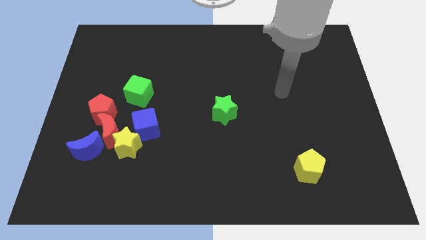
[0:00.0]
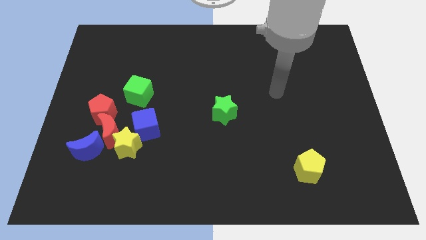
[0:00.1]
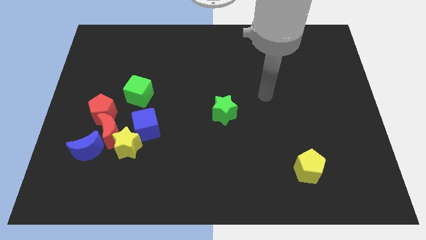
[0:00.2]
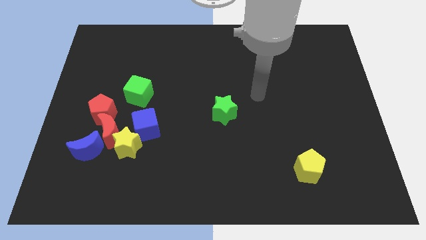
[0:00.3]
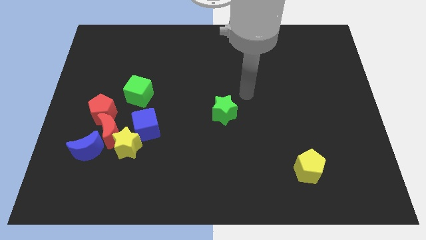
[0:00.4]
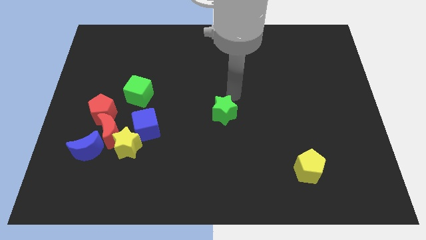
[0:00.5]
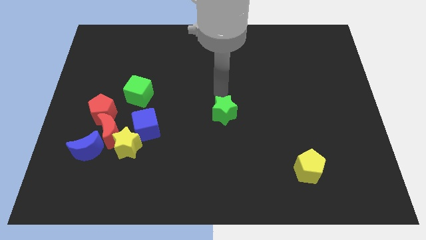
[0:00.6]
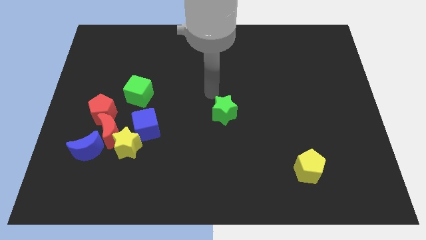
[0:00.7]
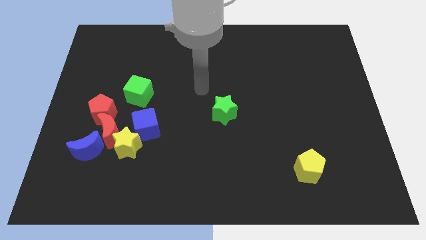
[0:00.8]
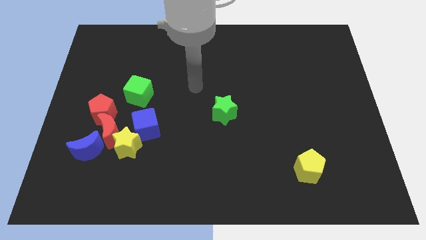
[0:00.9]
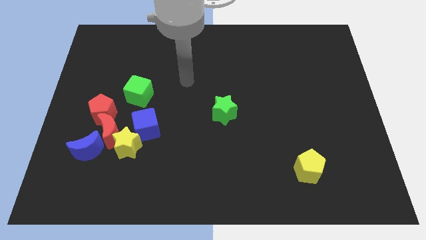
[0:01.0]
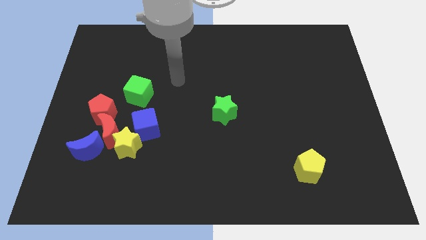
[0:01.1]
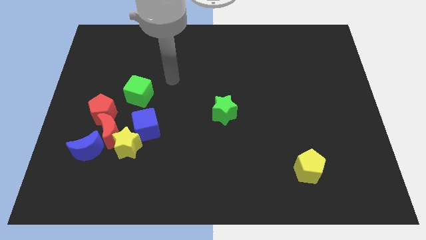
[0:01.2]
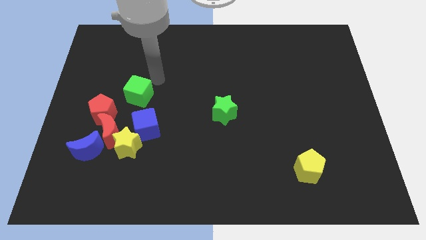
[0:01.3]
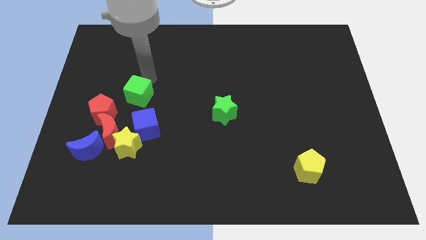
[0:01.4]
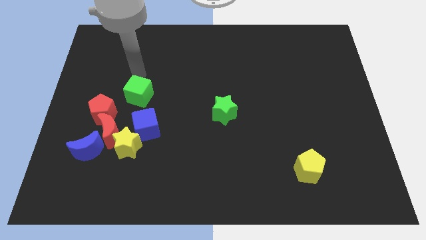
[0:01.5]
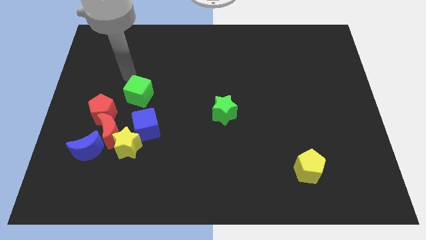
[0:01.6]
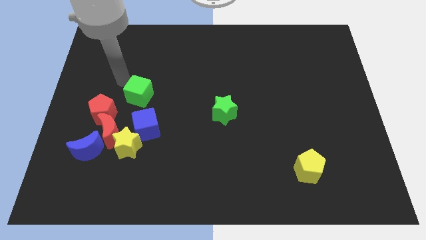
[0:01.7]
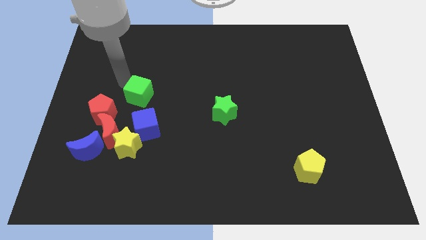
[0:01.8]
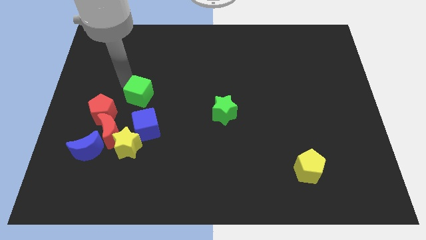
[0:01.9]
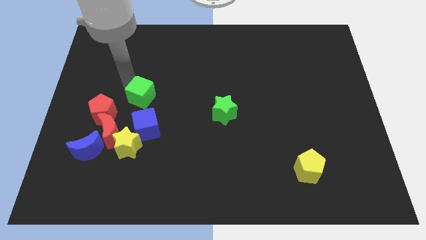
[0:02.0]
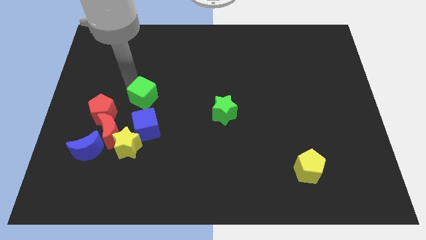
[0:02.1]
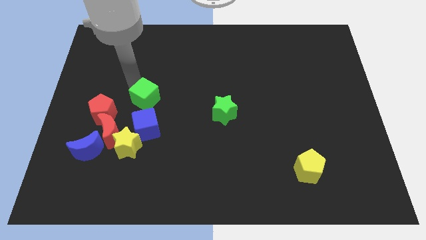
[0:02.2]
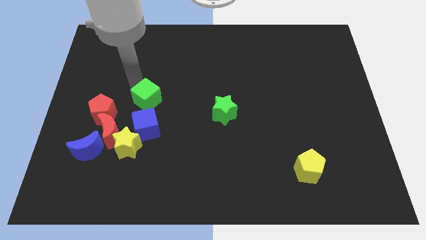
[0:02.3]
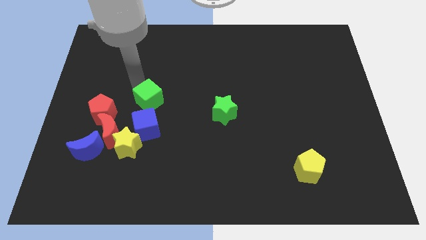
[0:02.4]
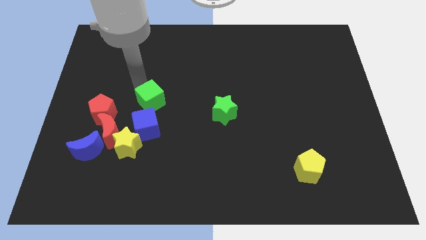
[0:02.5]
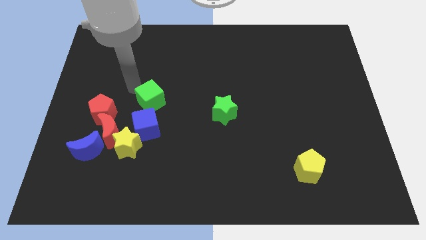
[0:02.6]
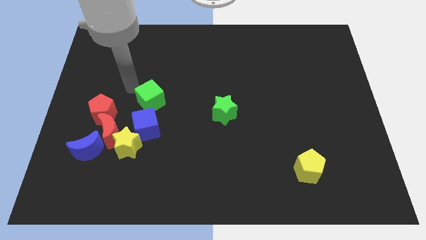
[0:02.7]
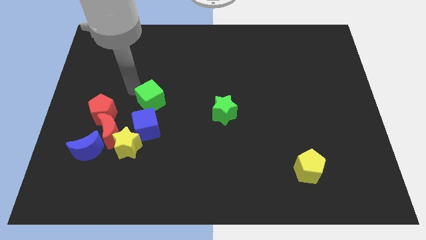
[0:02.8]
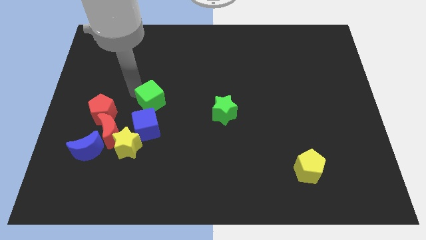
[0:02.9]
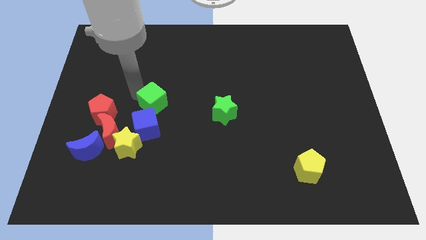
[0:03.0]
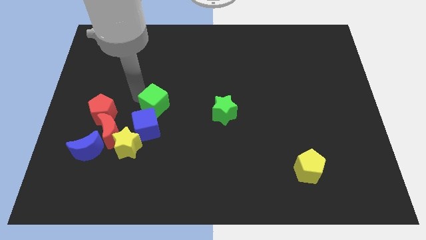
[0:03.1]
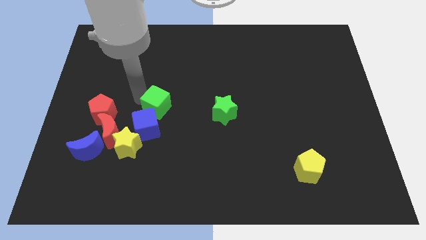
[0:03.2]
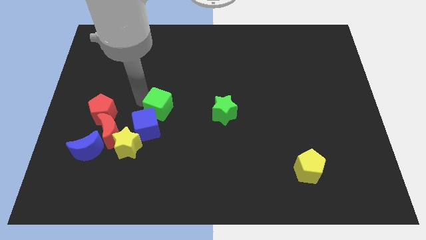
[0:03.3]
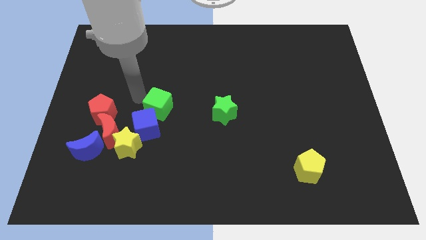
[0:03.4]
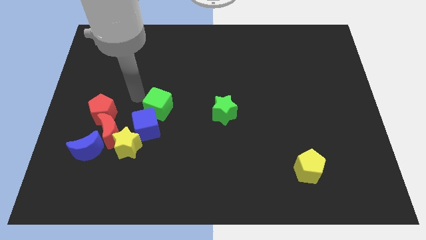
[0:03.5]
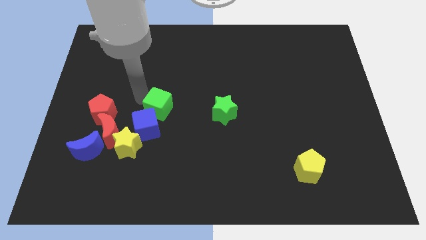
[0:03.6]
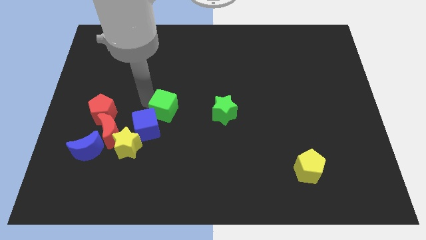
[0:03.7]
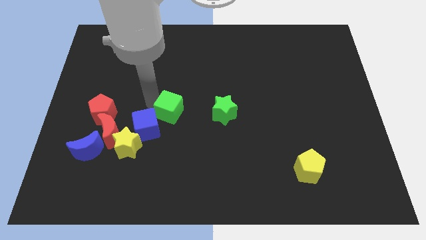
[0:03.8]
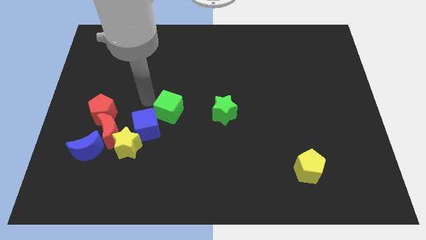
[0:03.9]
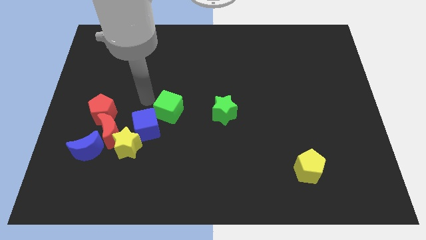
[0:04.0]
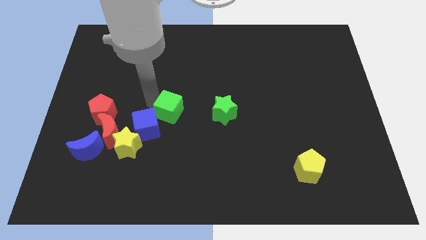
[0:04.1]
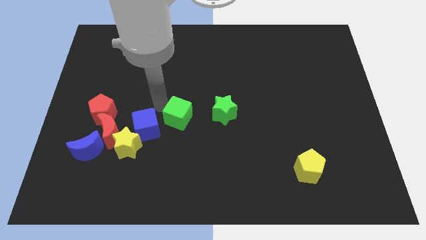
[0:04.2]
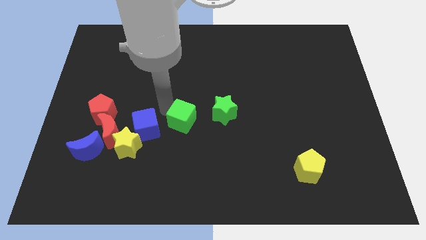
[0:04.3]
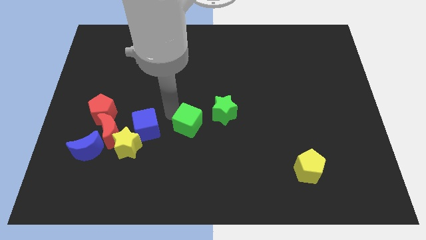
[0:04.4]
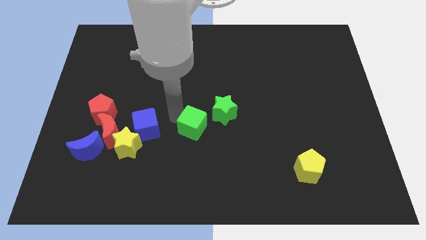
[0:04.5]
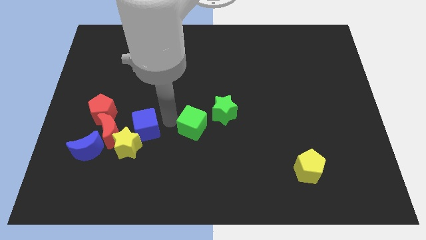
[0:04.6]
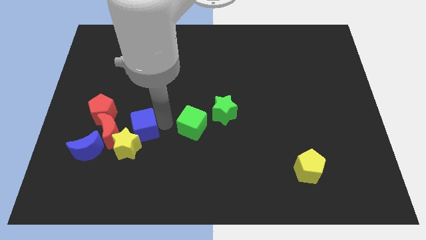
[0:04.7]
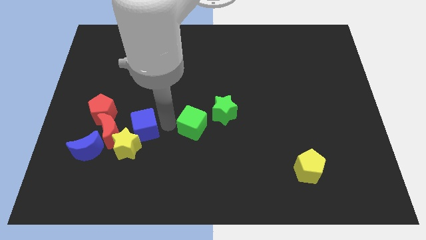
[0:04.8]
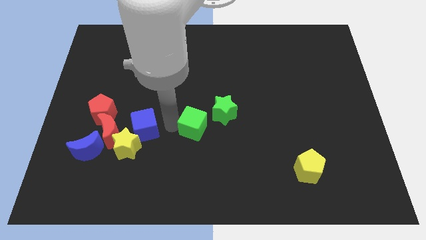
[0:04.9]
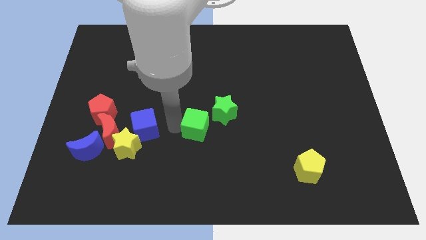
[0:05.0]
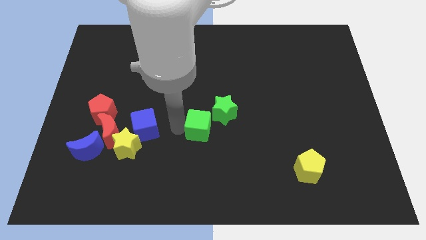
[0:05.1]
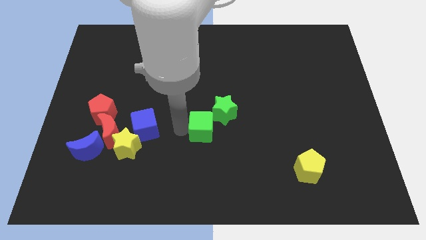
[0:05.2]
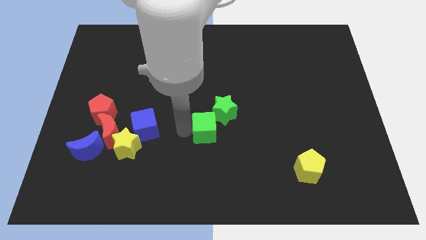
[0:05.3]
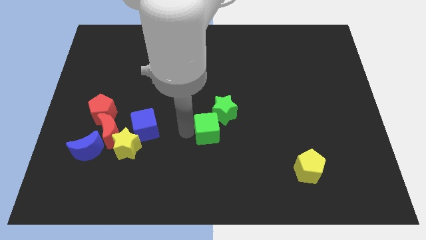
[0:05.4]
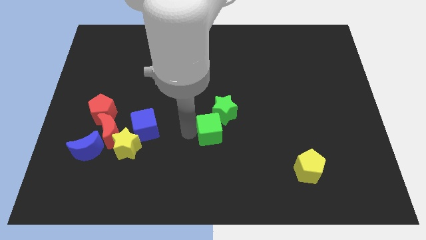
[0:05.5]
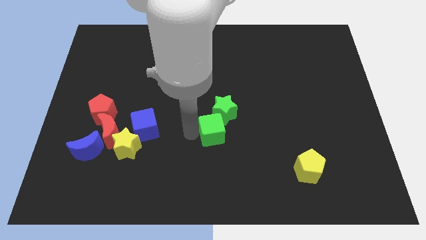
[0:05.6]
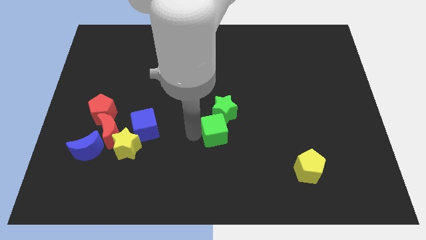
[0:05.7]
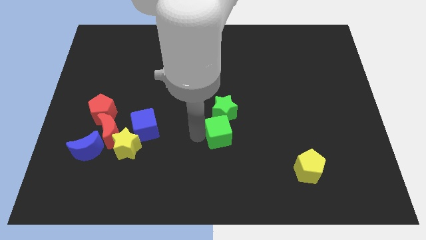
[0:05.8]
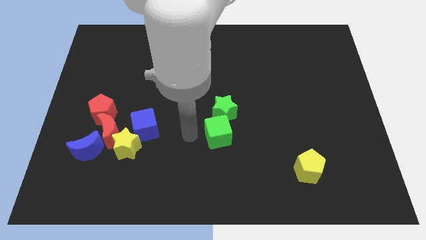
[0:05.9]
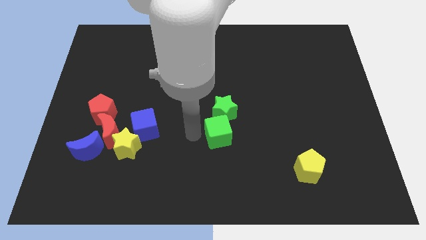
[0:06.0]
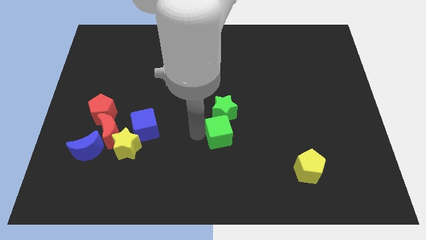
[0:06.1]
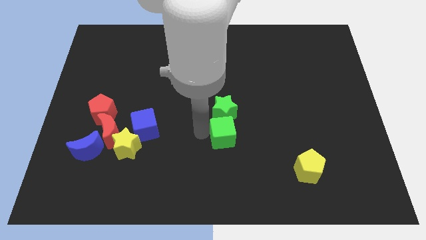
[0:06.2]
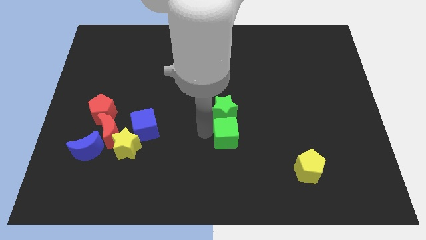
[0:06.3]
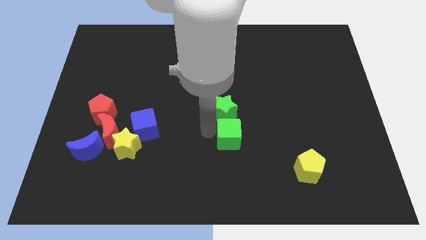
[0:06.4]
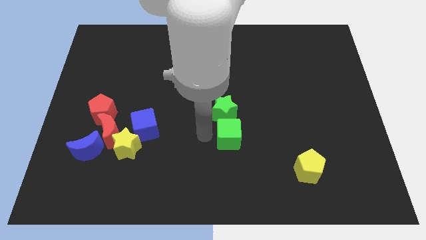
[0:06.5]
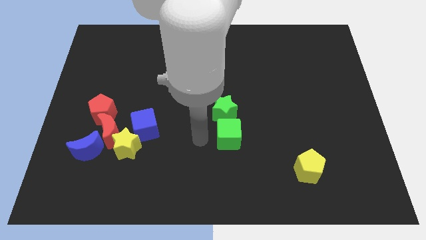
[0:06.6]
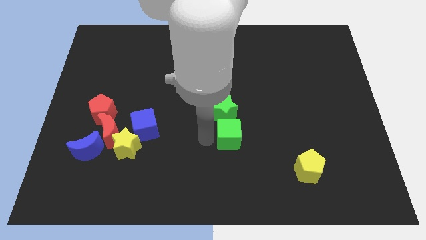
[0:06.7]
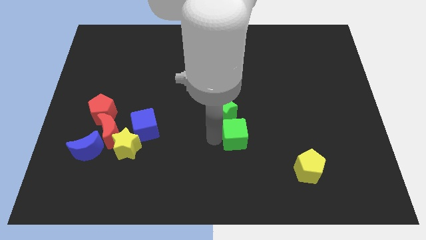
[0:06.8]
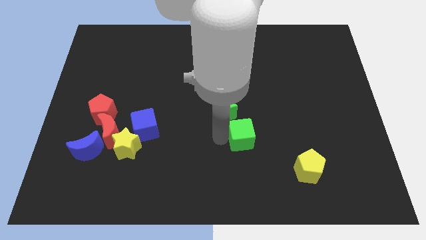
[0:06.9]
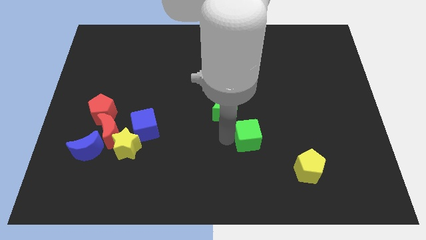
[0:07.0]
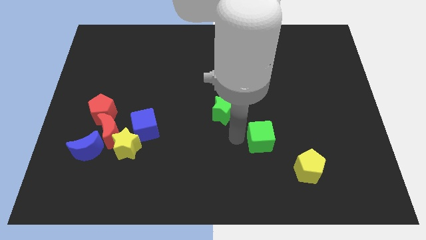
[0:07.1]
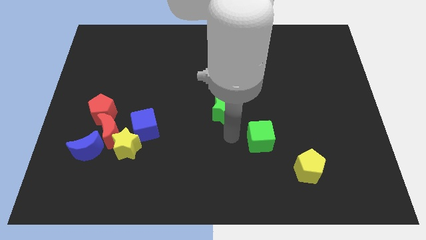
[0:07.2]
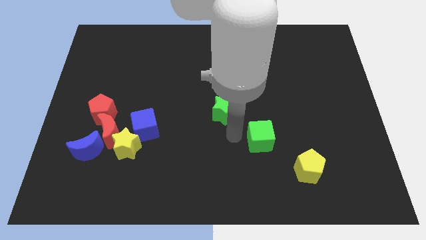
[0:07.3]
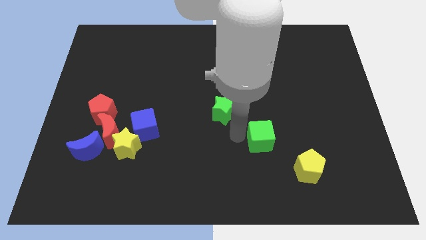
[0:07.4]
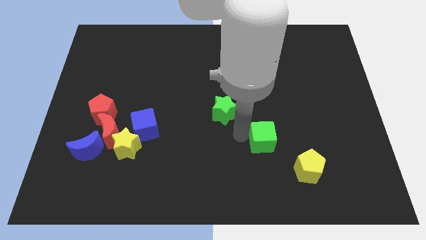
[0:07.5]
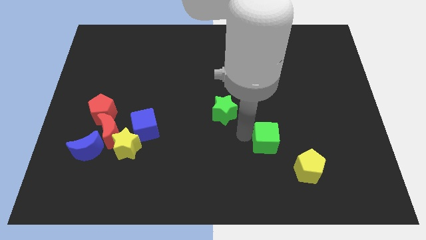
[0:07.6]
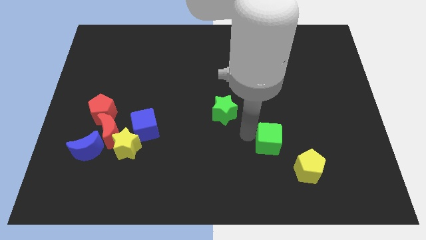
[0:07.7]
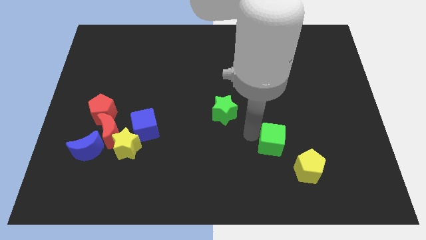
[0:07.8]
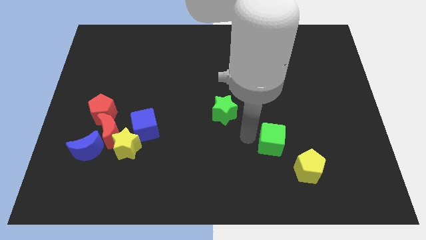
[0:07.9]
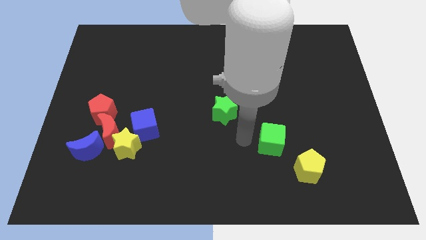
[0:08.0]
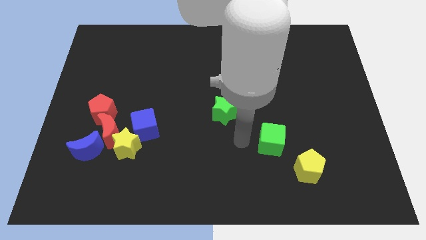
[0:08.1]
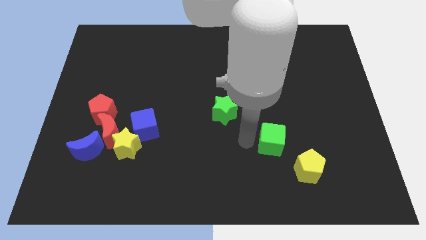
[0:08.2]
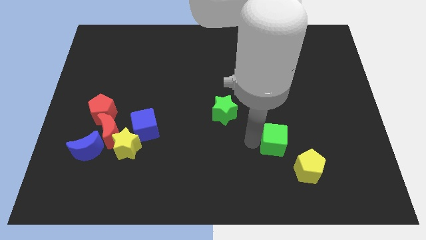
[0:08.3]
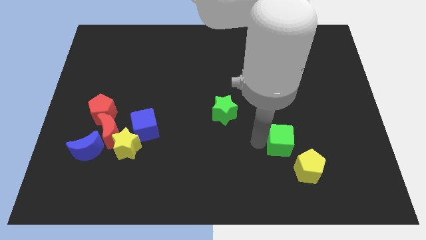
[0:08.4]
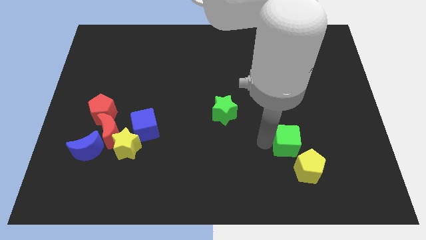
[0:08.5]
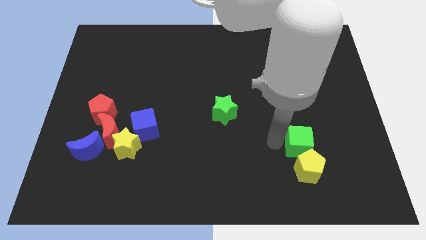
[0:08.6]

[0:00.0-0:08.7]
move the green cube to the top right side of the yellow pentagon
